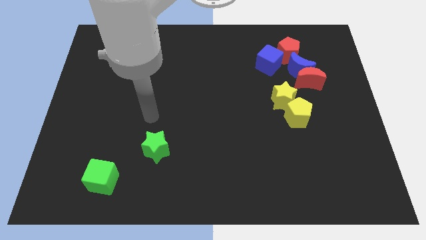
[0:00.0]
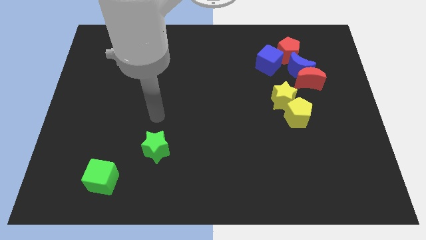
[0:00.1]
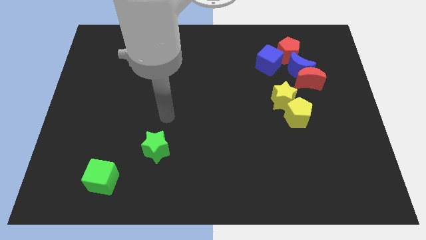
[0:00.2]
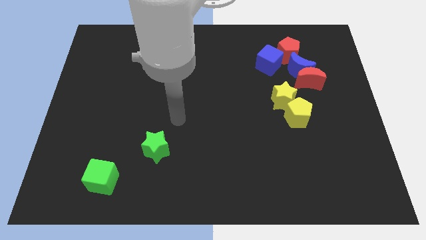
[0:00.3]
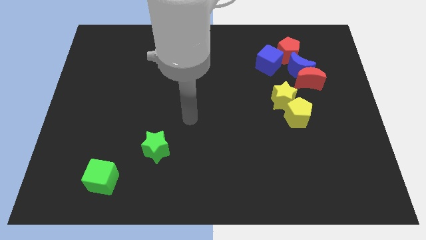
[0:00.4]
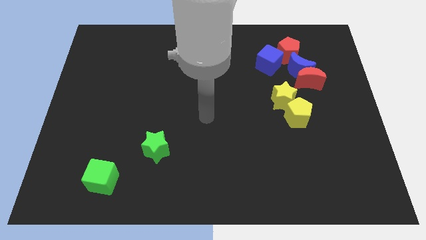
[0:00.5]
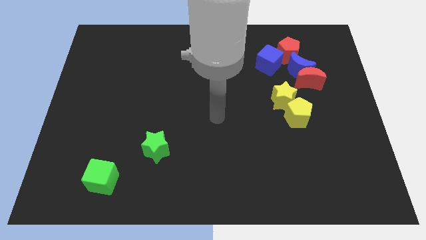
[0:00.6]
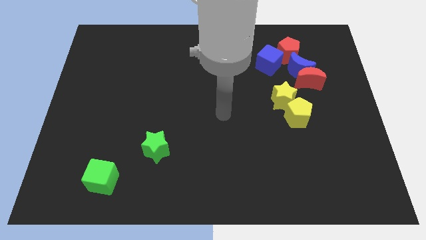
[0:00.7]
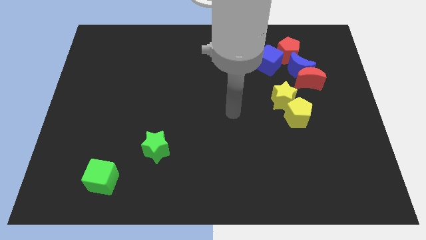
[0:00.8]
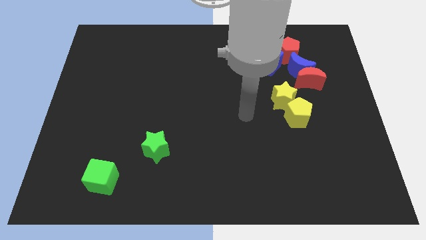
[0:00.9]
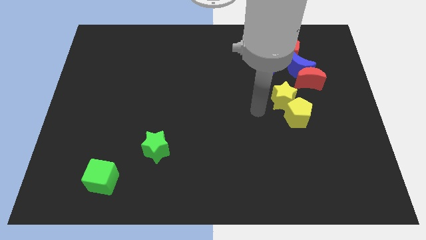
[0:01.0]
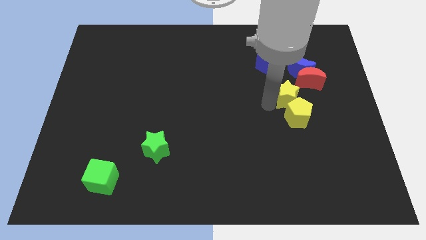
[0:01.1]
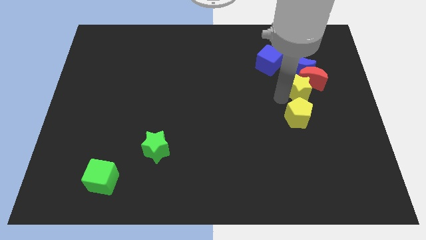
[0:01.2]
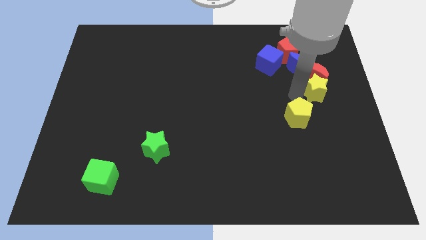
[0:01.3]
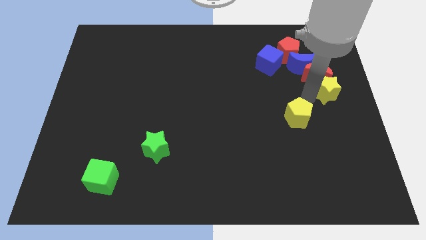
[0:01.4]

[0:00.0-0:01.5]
pull the yellow pentagon apart from the yellow star

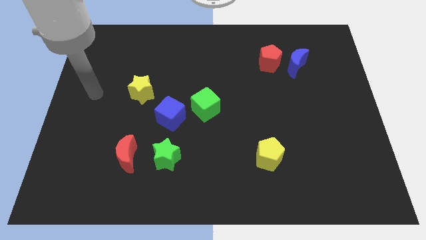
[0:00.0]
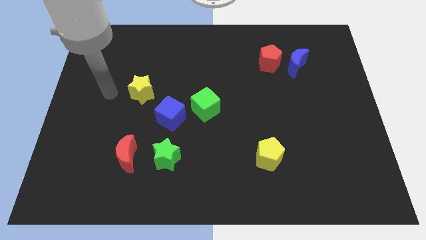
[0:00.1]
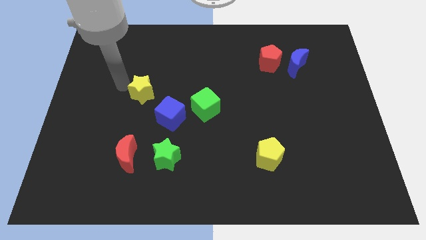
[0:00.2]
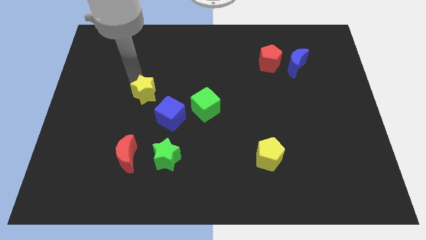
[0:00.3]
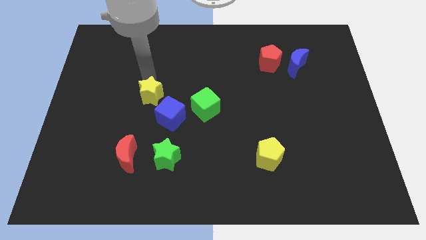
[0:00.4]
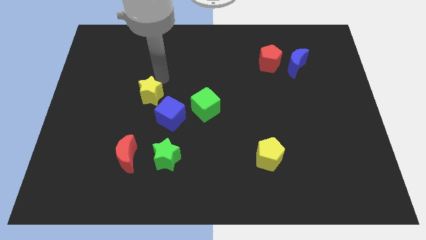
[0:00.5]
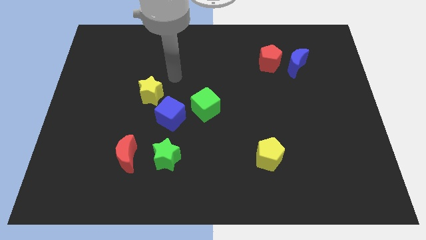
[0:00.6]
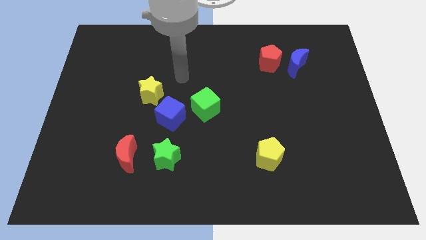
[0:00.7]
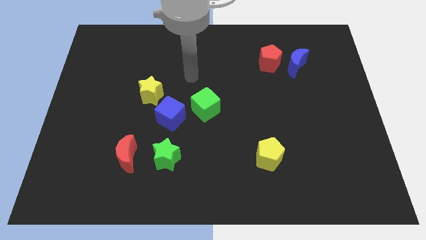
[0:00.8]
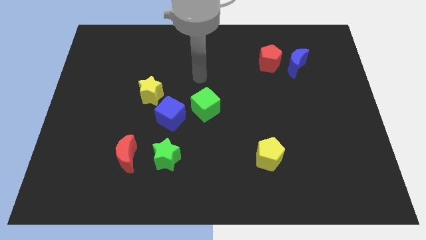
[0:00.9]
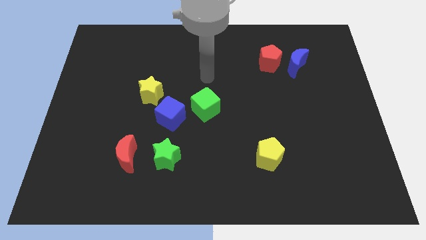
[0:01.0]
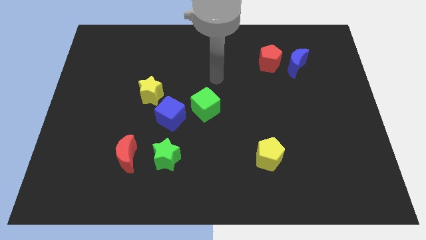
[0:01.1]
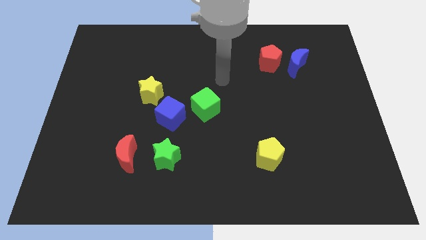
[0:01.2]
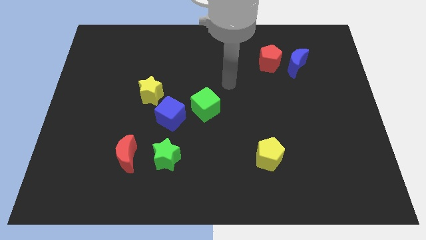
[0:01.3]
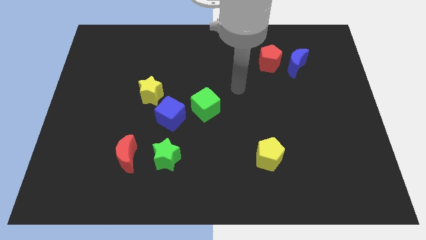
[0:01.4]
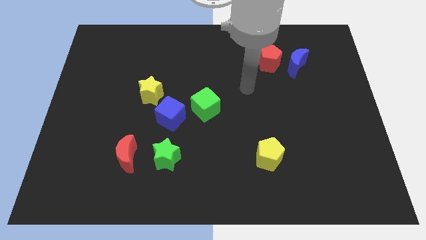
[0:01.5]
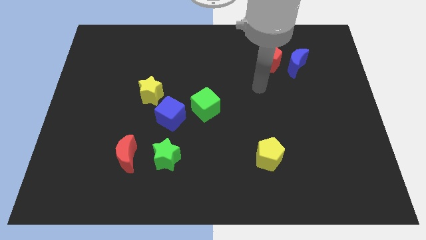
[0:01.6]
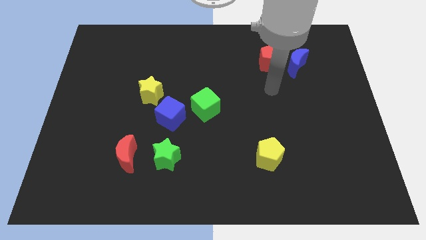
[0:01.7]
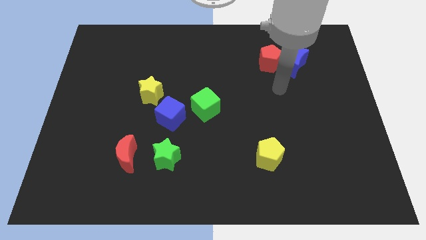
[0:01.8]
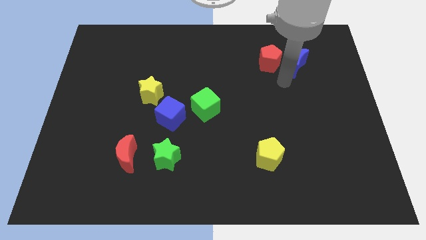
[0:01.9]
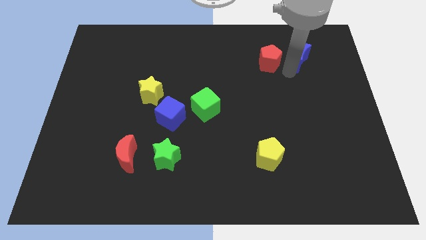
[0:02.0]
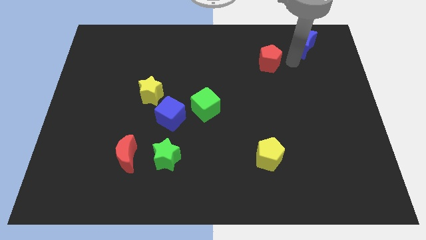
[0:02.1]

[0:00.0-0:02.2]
separate the red pentagon from the blue moon

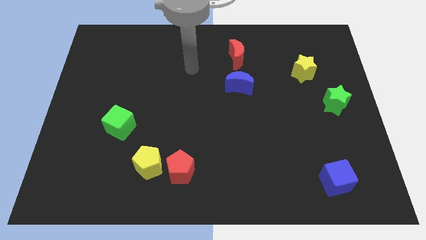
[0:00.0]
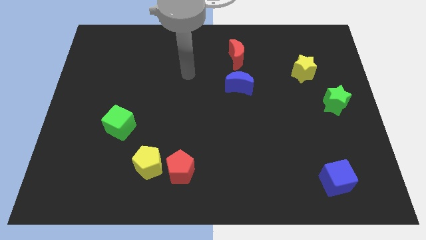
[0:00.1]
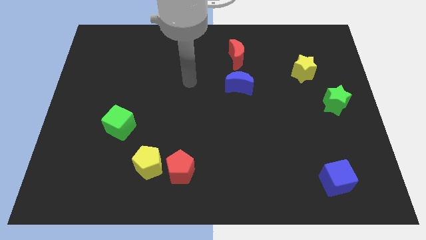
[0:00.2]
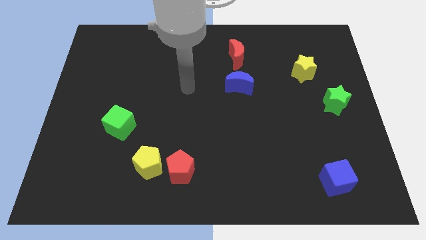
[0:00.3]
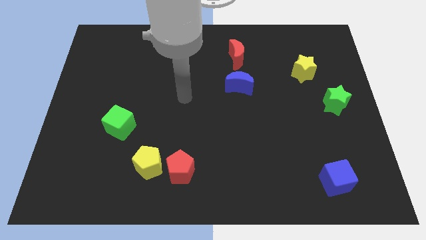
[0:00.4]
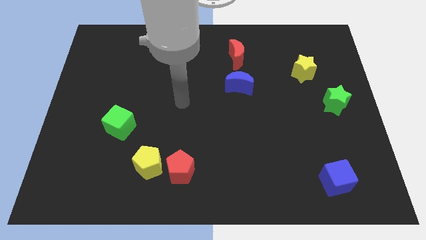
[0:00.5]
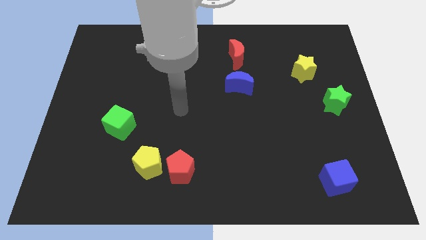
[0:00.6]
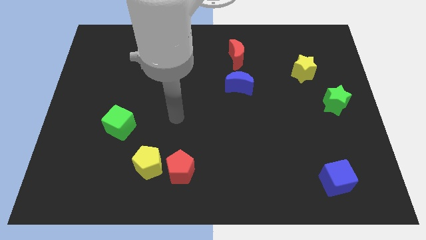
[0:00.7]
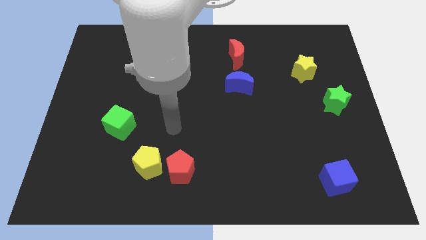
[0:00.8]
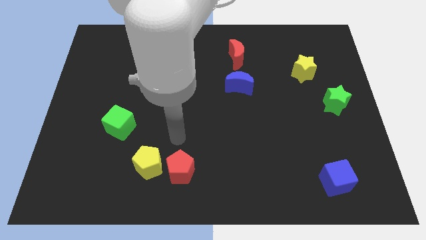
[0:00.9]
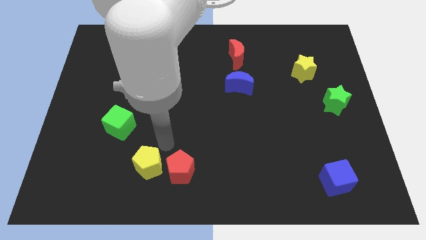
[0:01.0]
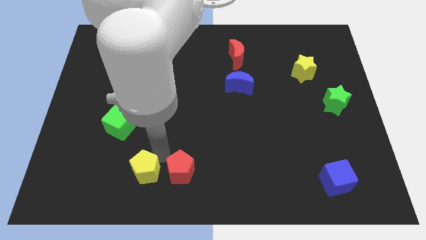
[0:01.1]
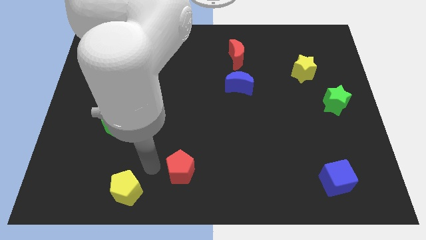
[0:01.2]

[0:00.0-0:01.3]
move the red pentagon away from the yellow pentagon

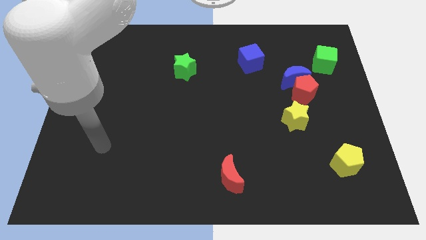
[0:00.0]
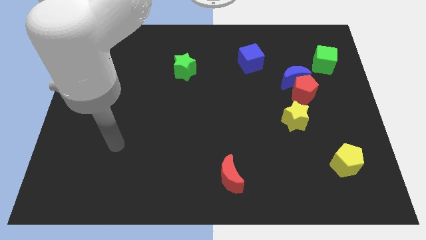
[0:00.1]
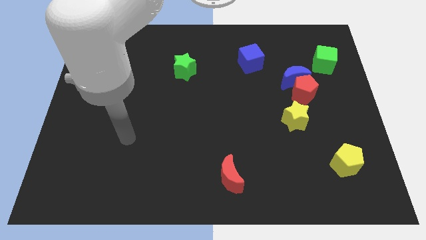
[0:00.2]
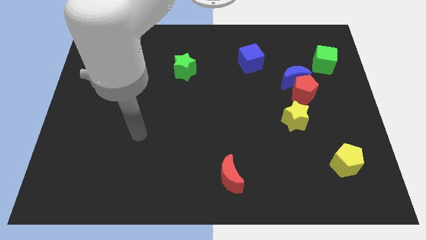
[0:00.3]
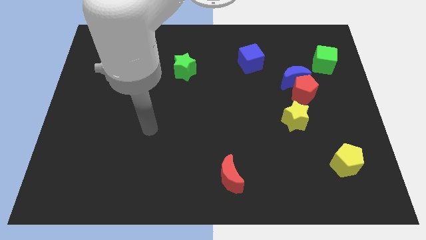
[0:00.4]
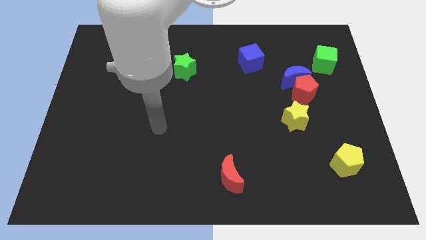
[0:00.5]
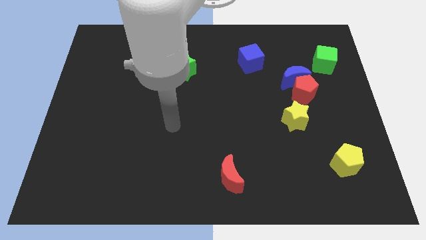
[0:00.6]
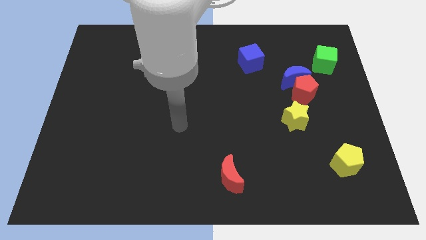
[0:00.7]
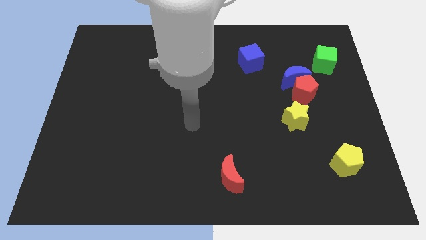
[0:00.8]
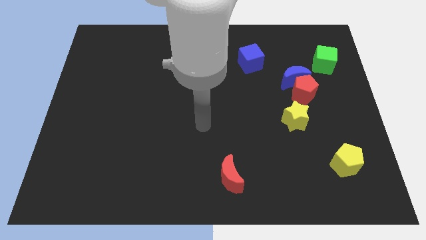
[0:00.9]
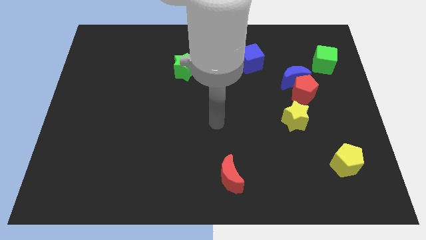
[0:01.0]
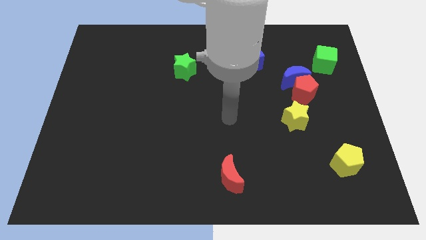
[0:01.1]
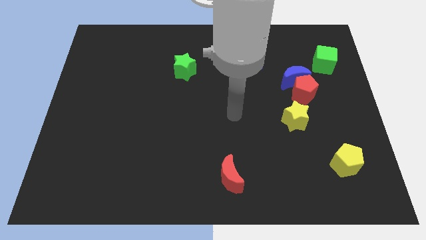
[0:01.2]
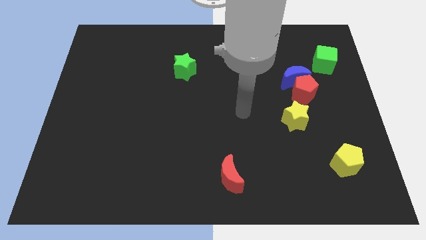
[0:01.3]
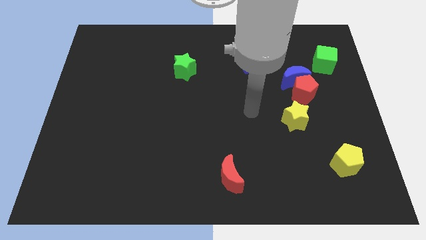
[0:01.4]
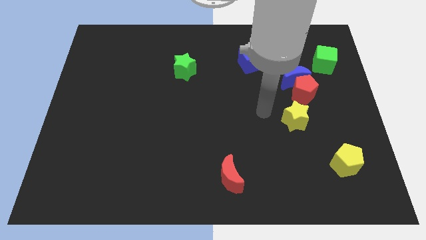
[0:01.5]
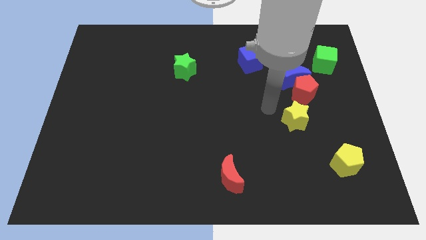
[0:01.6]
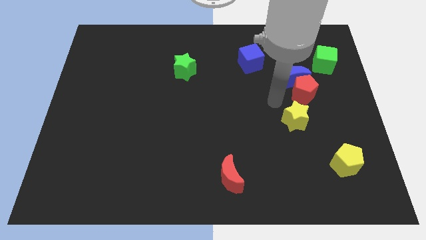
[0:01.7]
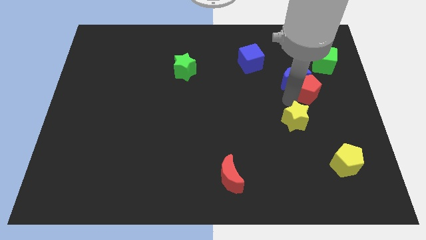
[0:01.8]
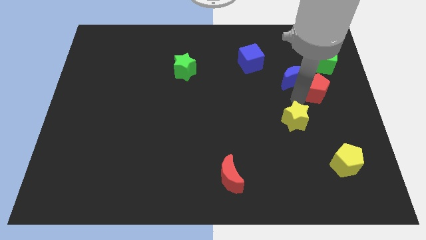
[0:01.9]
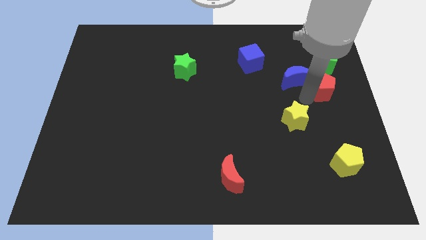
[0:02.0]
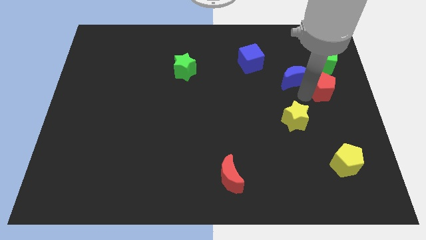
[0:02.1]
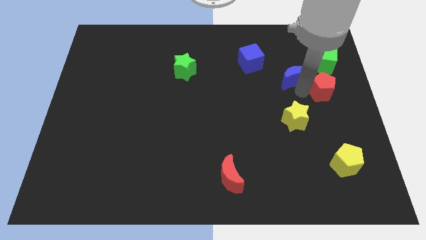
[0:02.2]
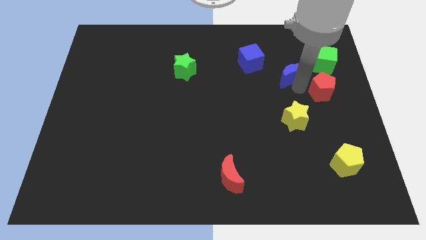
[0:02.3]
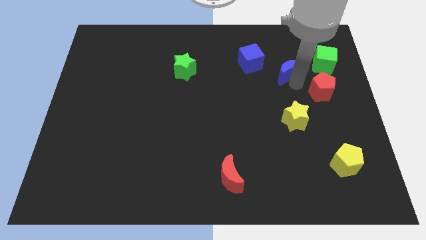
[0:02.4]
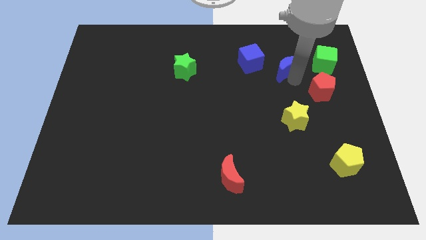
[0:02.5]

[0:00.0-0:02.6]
separate the blue moon from the red pentagon

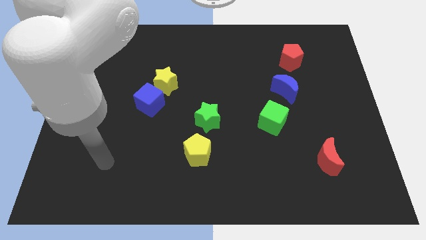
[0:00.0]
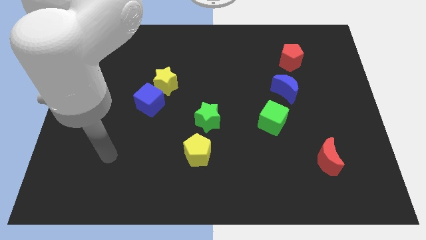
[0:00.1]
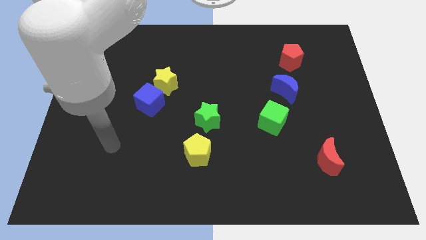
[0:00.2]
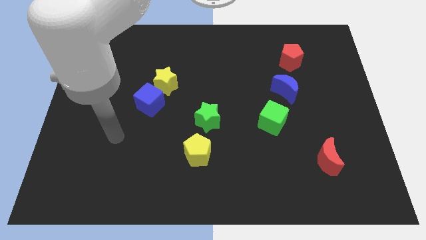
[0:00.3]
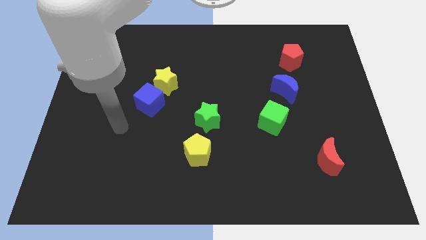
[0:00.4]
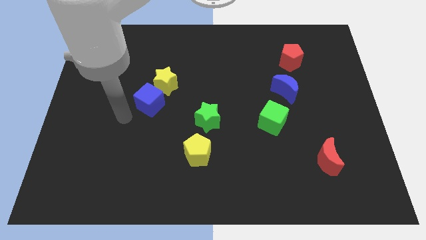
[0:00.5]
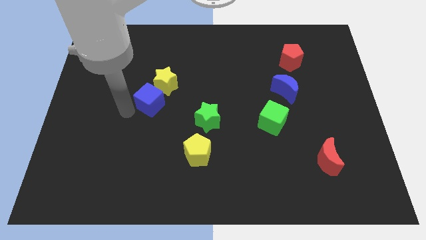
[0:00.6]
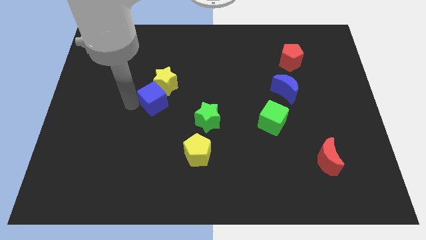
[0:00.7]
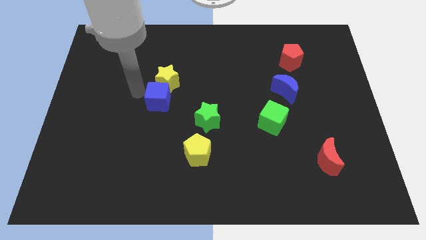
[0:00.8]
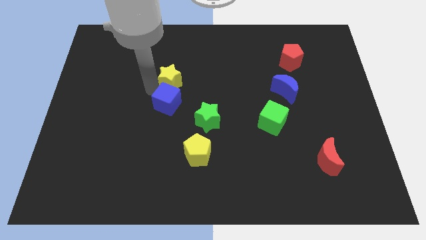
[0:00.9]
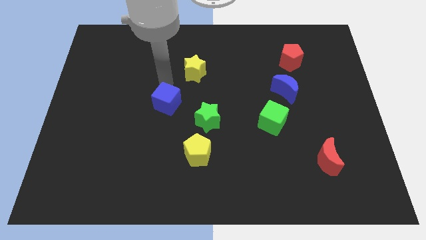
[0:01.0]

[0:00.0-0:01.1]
separate the blue cube from the yellow star

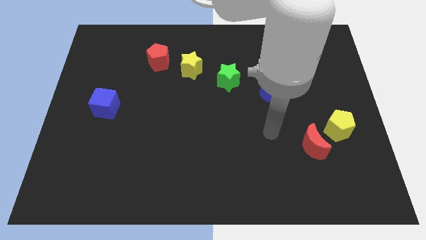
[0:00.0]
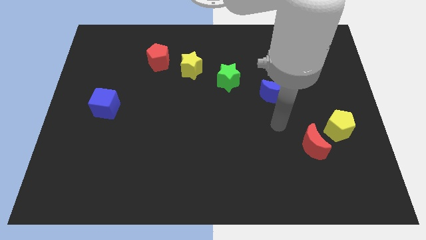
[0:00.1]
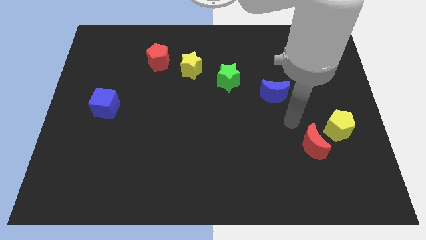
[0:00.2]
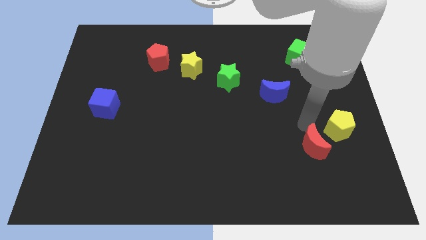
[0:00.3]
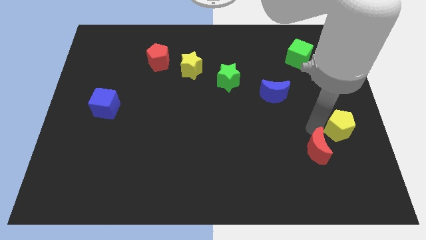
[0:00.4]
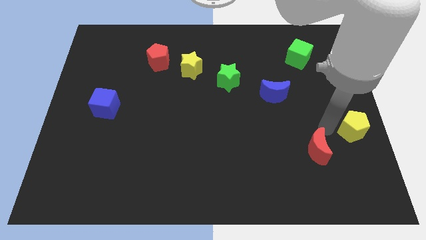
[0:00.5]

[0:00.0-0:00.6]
separate the red moon from the yellow pentagon

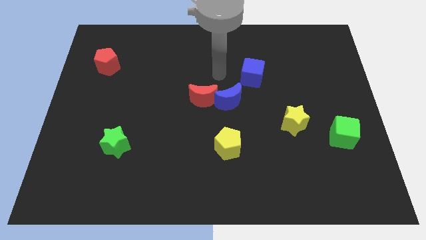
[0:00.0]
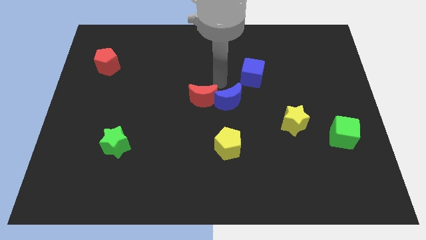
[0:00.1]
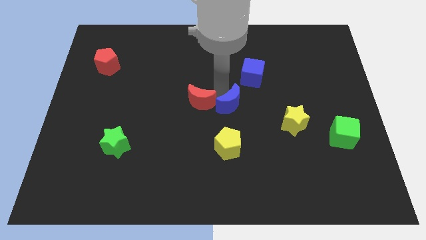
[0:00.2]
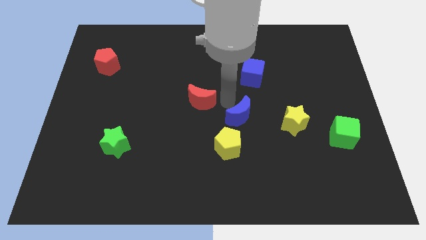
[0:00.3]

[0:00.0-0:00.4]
move the red moon away from the blue moon
